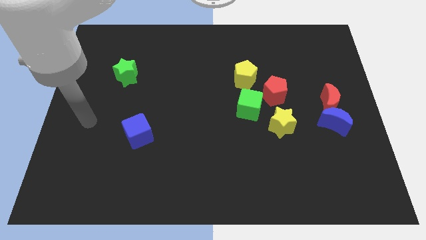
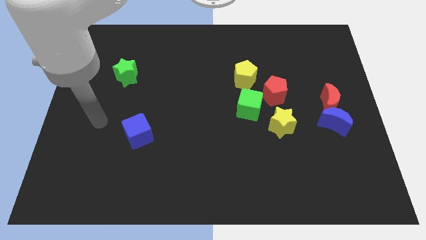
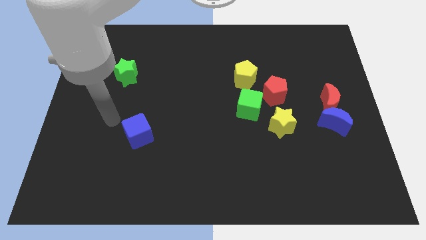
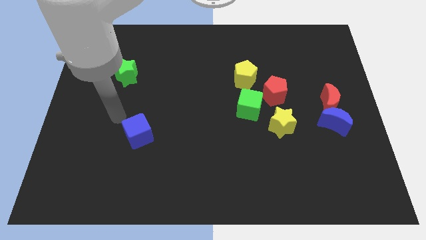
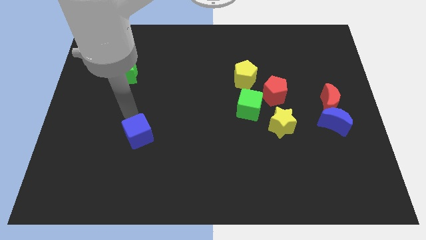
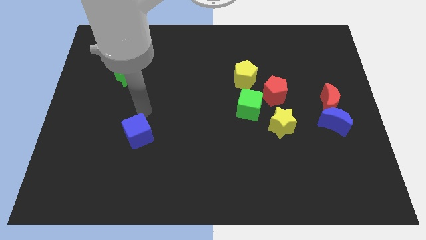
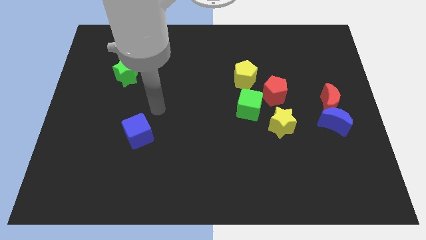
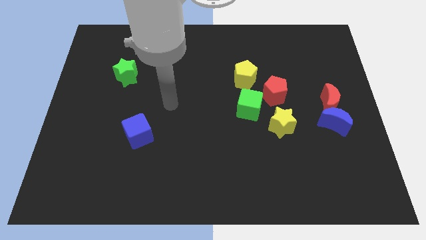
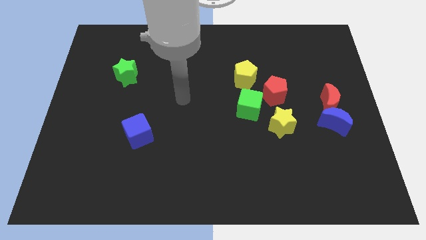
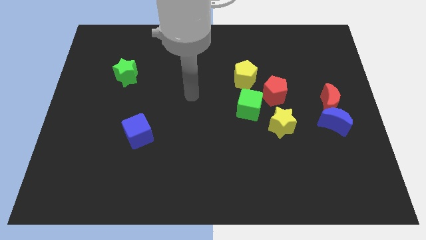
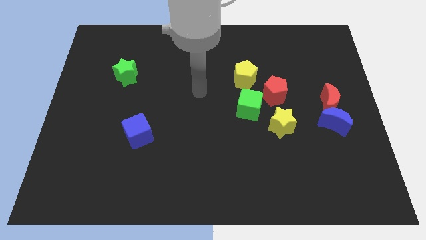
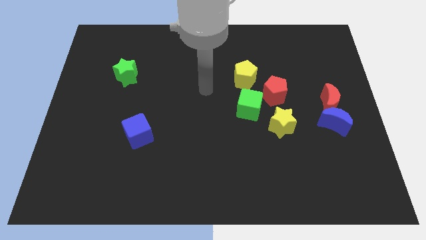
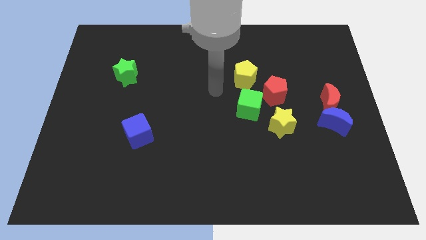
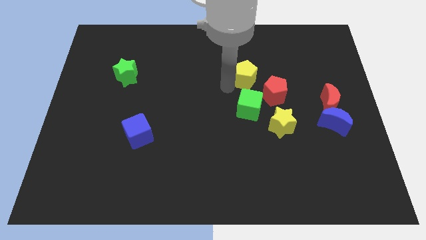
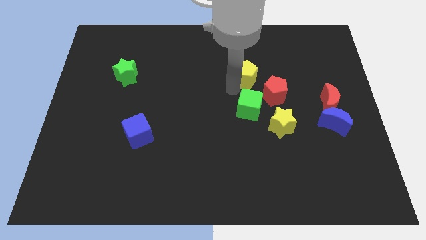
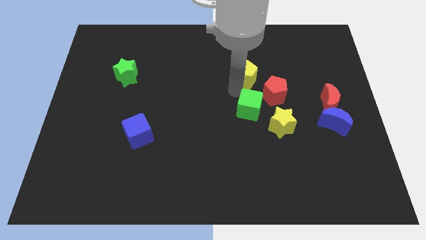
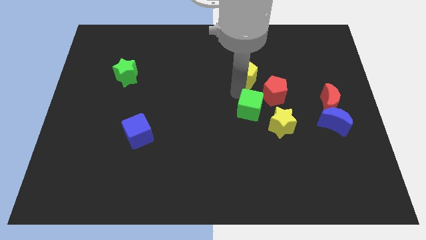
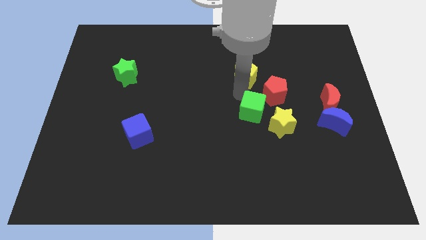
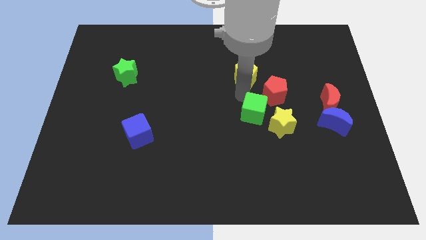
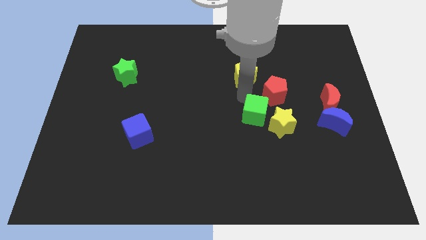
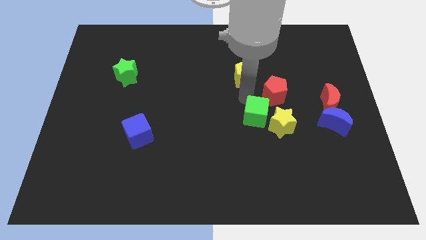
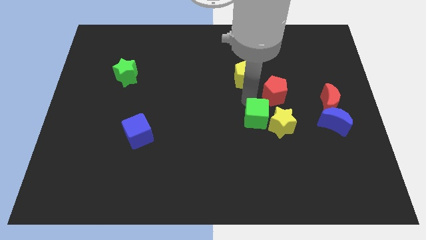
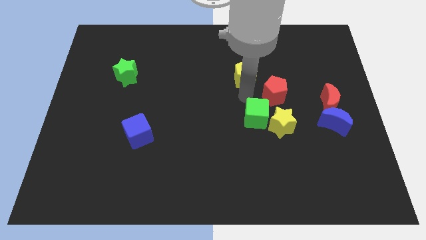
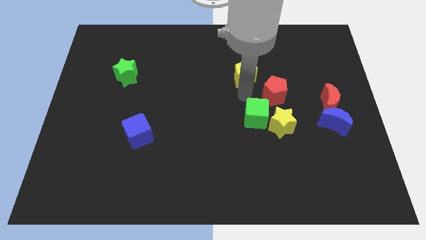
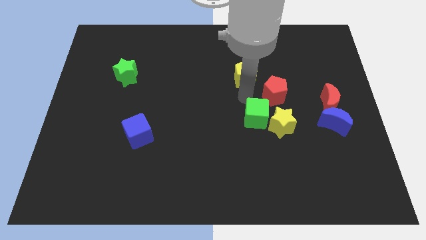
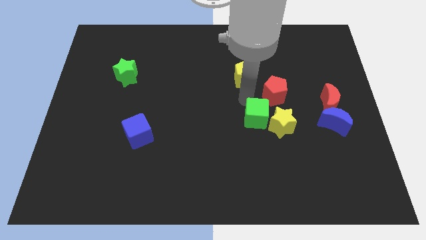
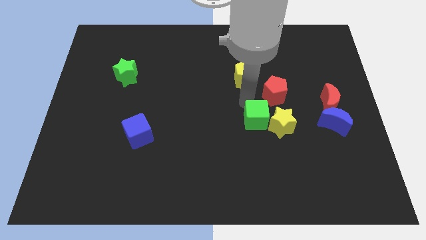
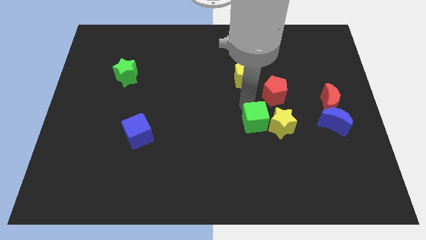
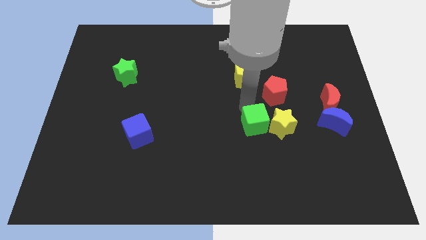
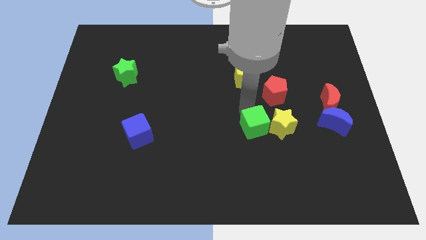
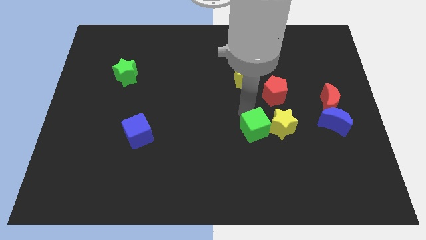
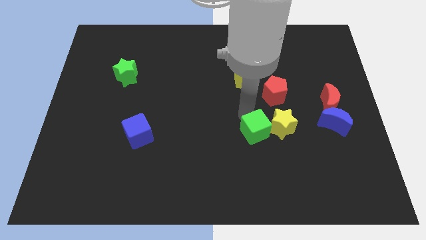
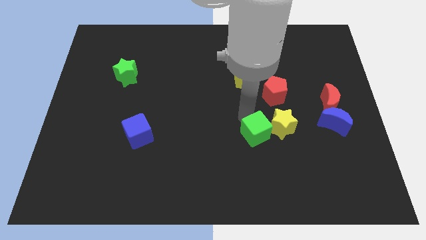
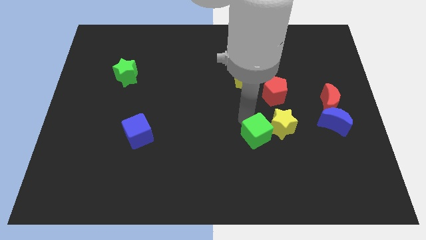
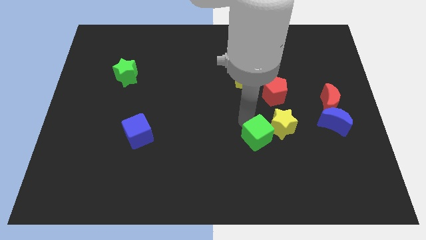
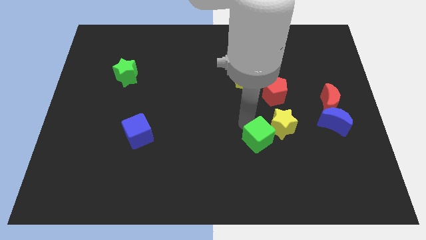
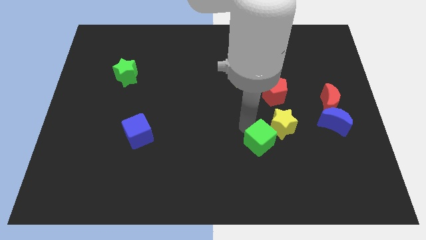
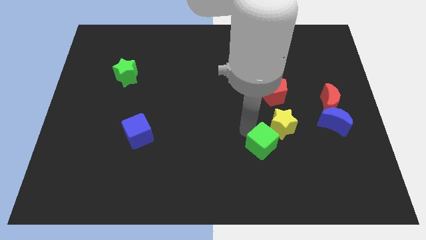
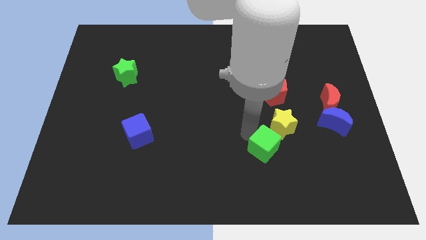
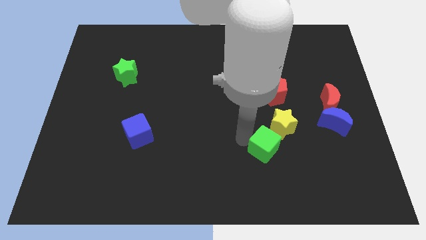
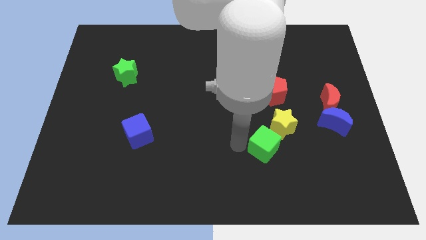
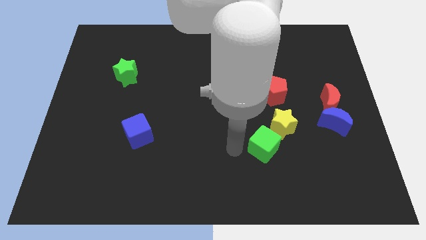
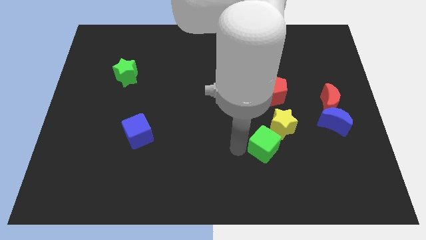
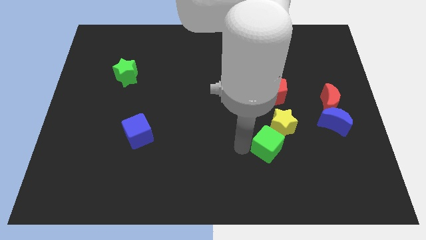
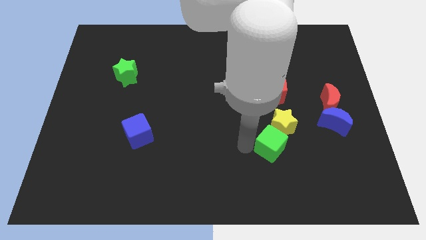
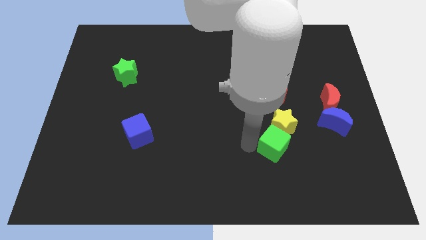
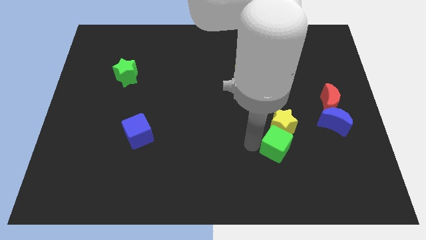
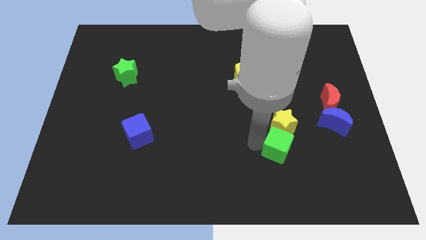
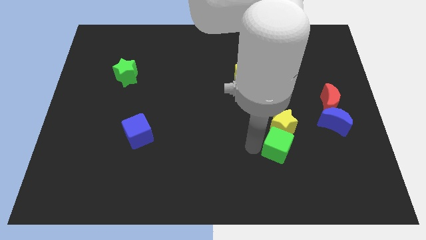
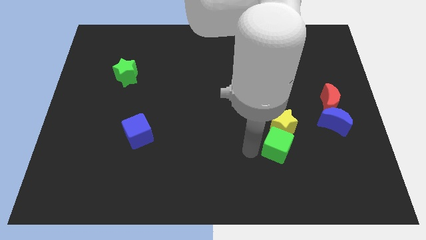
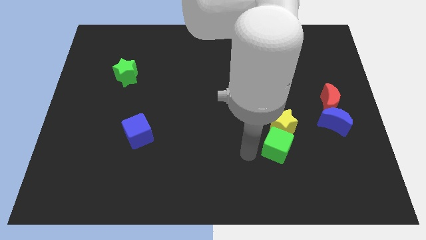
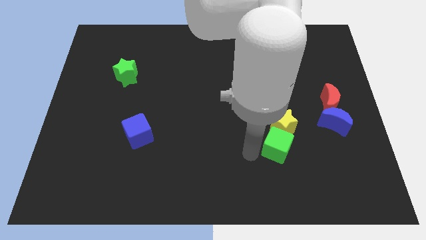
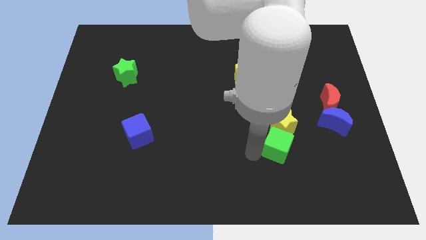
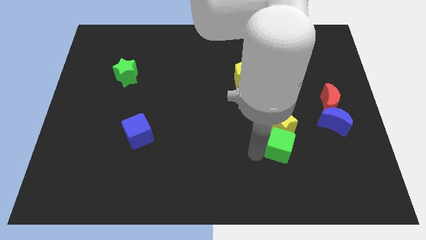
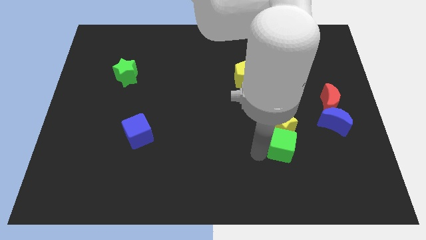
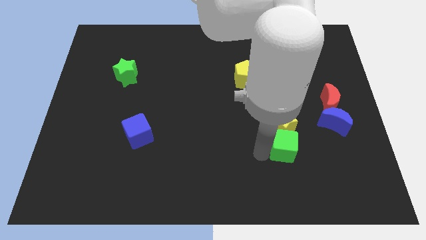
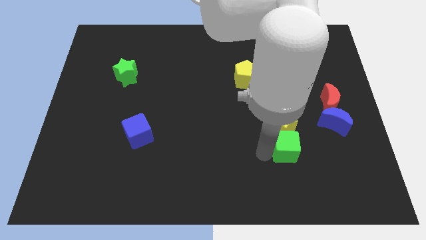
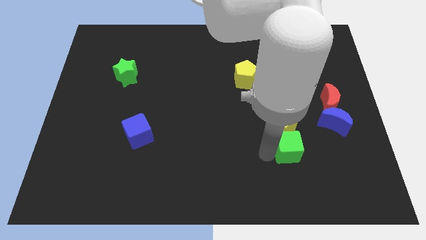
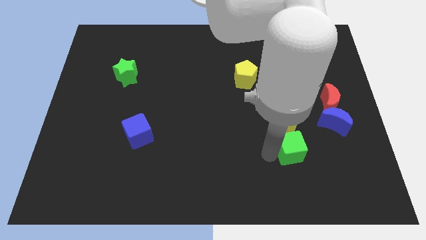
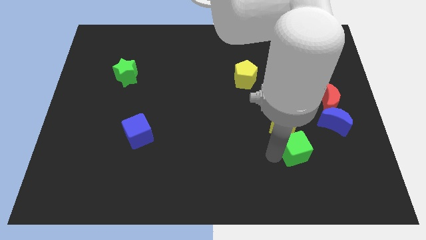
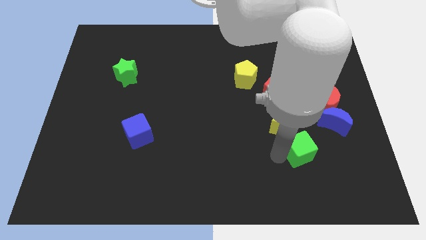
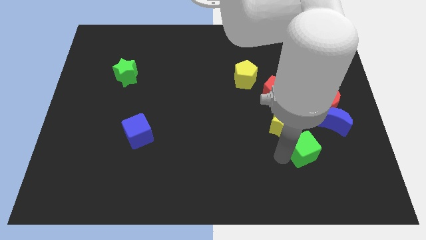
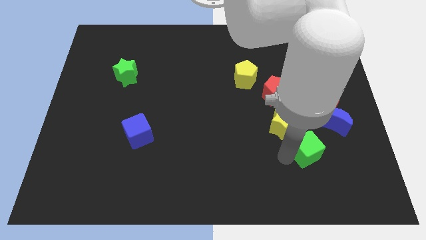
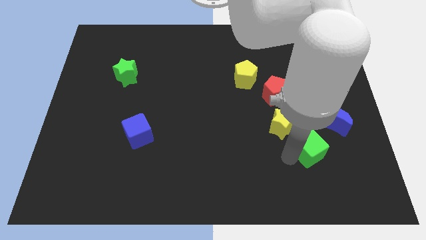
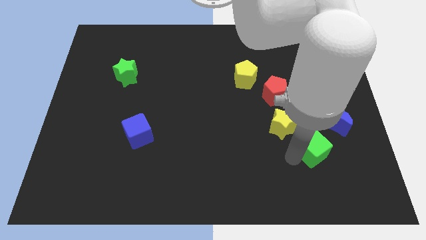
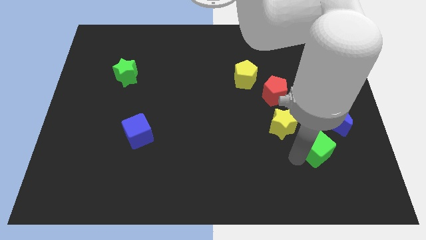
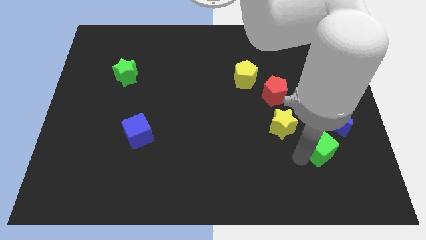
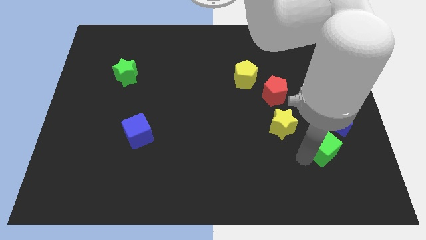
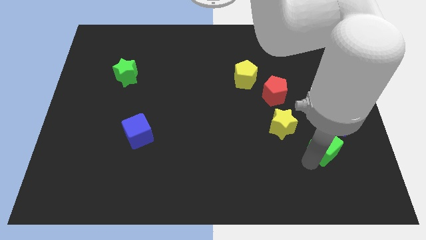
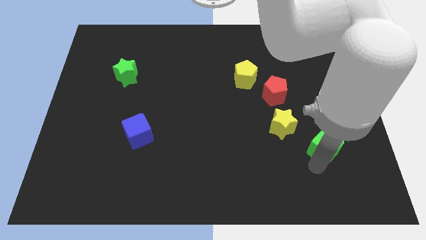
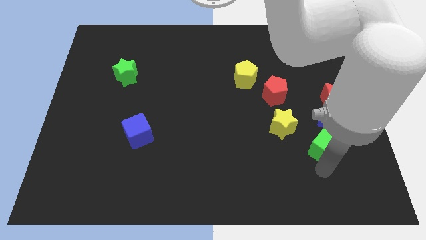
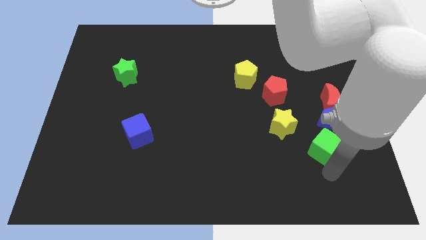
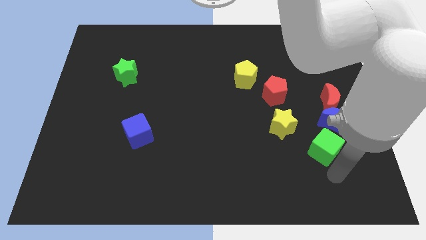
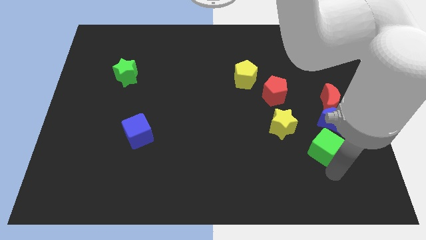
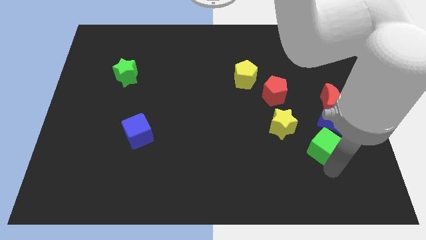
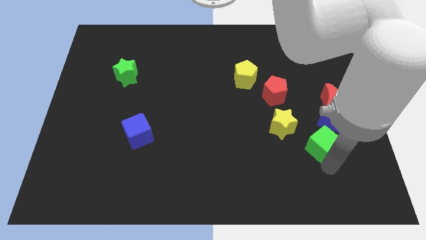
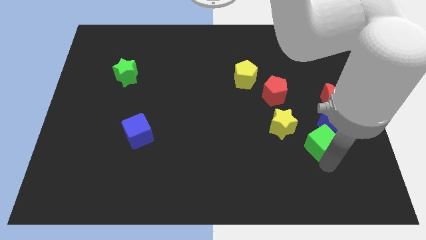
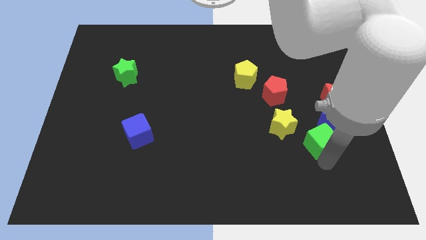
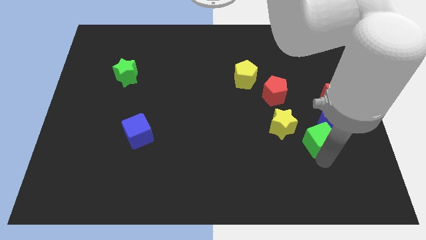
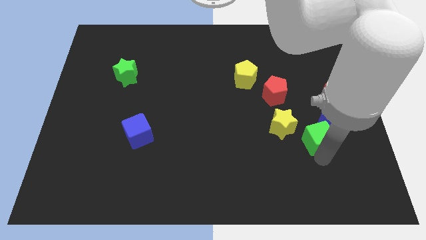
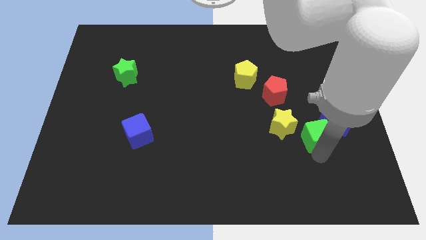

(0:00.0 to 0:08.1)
move the green cube to the blue moon

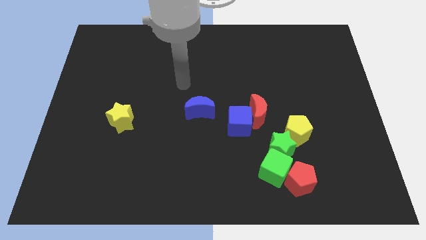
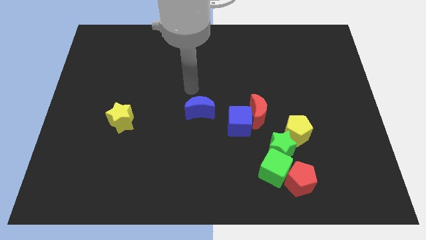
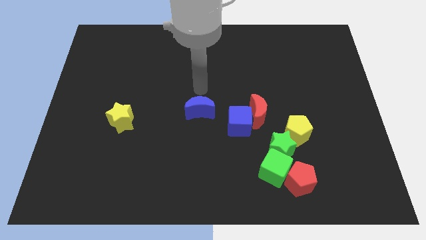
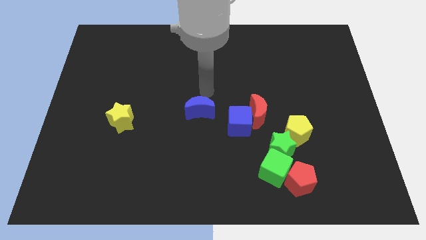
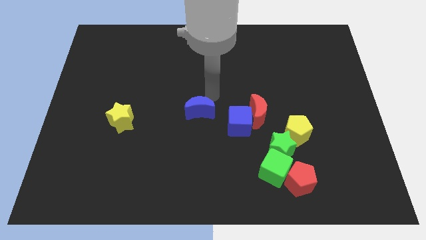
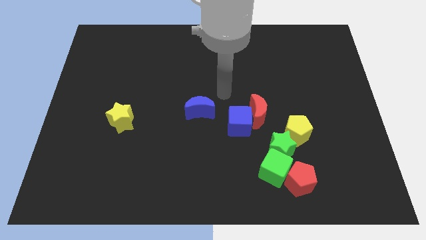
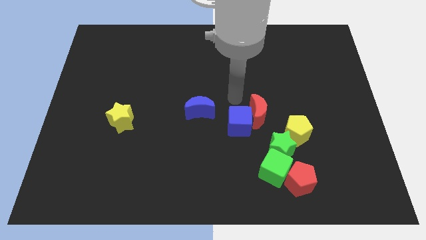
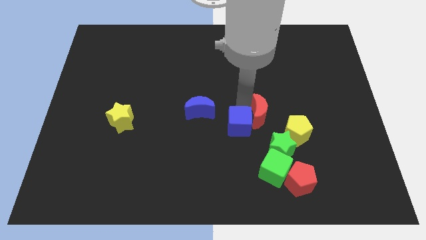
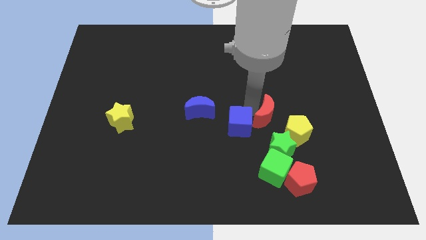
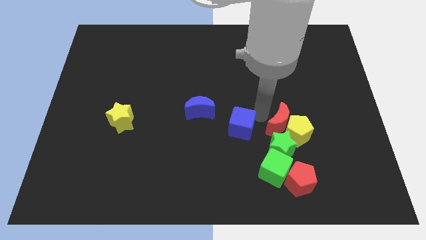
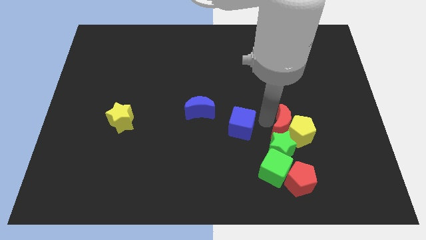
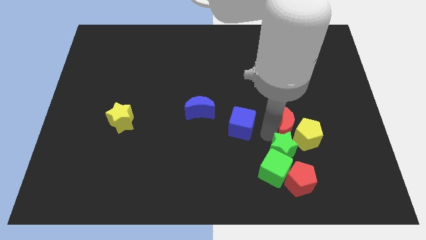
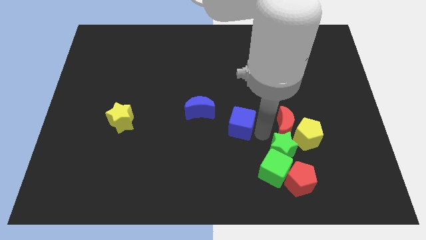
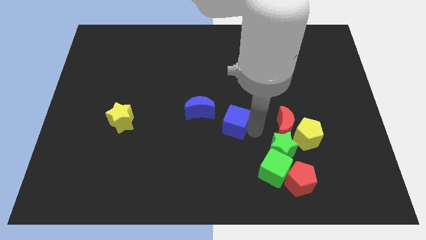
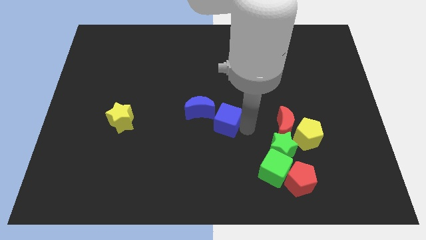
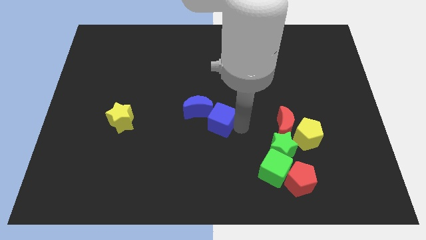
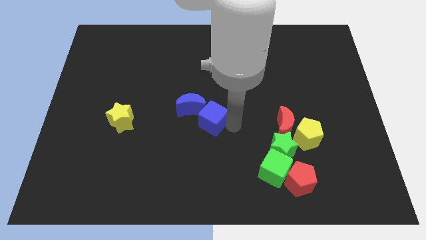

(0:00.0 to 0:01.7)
move the blue cube towards the blue moon
